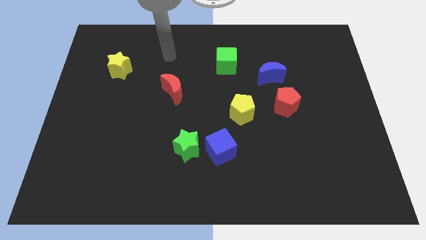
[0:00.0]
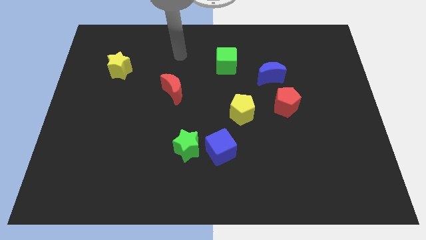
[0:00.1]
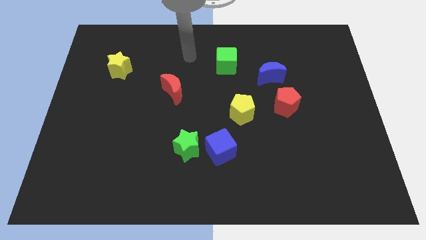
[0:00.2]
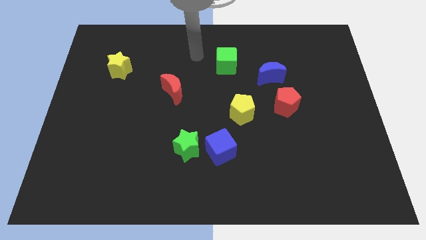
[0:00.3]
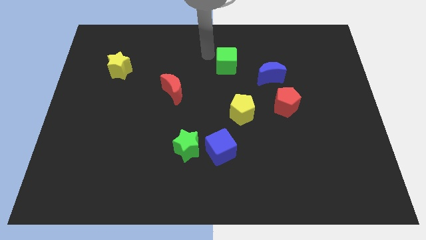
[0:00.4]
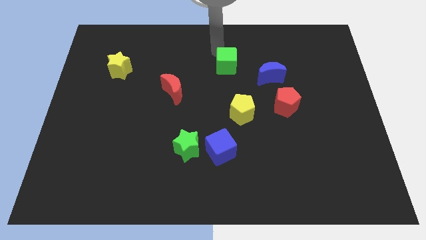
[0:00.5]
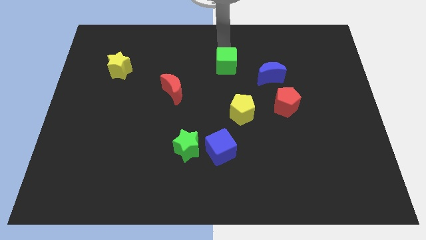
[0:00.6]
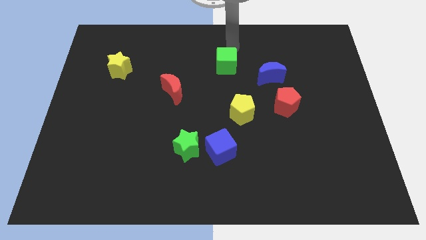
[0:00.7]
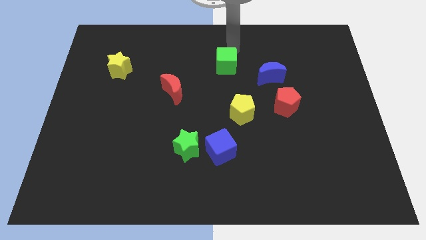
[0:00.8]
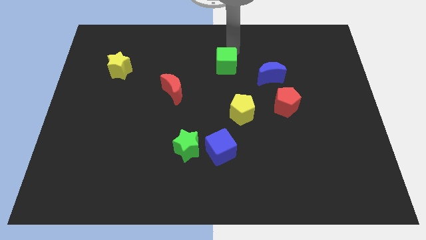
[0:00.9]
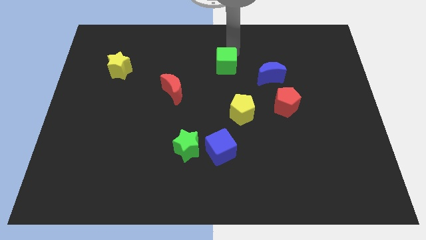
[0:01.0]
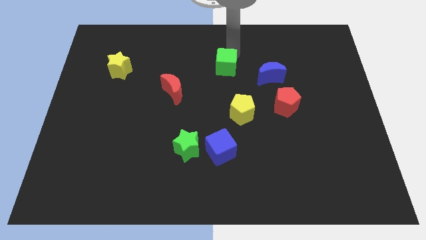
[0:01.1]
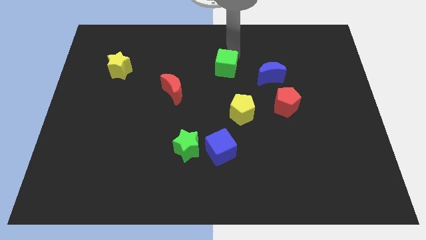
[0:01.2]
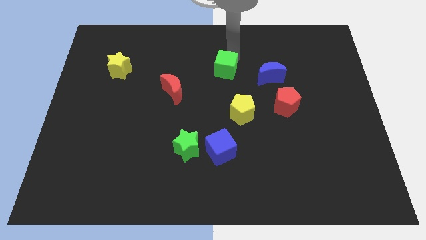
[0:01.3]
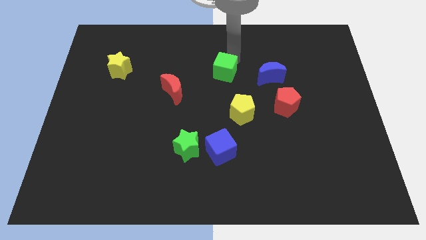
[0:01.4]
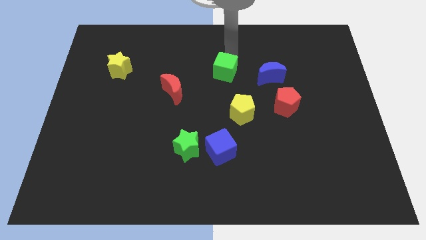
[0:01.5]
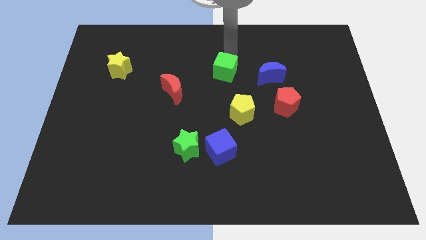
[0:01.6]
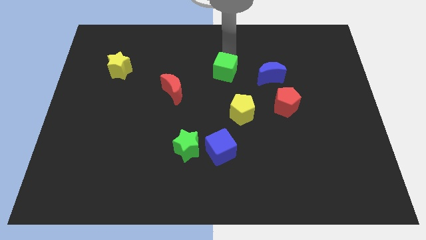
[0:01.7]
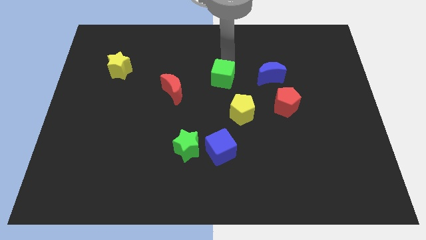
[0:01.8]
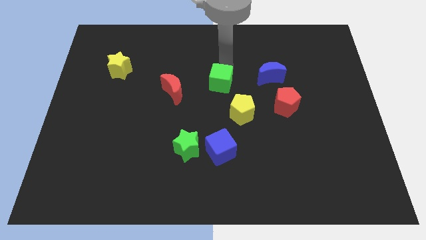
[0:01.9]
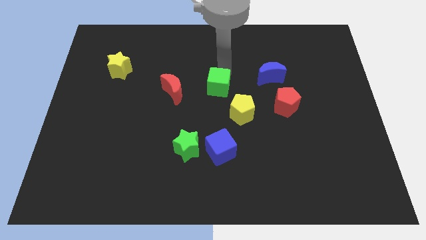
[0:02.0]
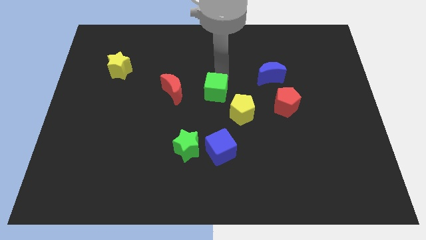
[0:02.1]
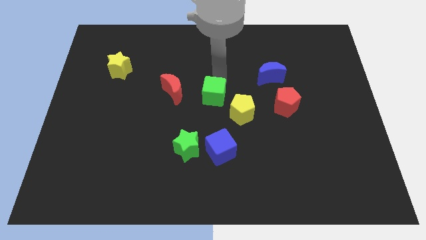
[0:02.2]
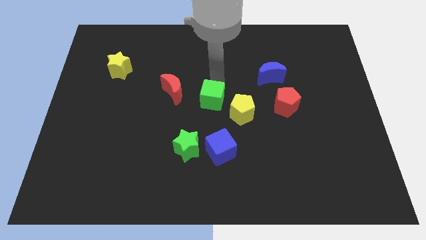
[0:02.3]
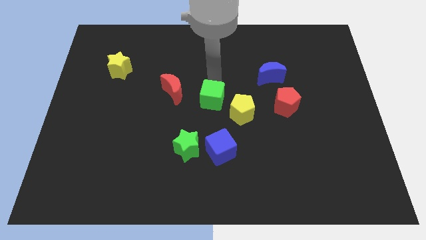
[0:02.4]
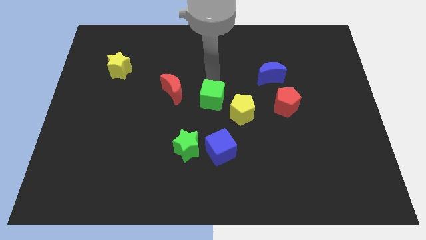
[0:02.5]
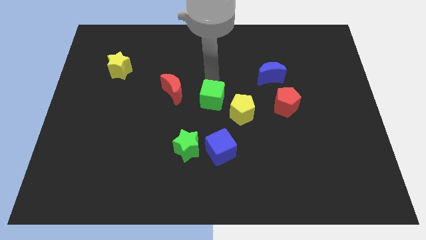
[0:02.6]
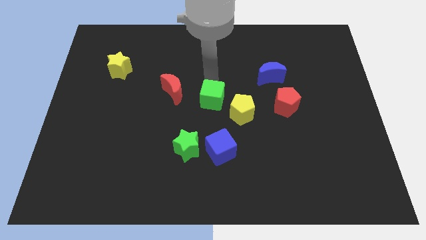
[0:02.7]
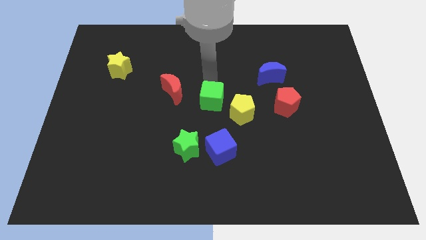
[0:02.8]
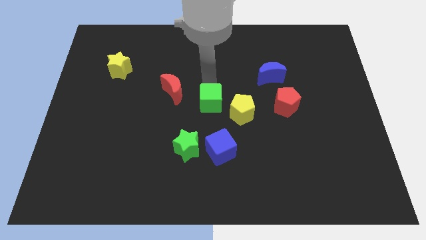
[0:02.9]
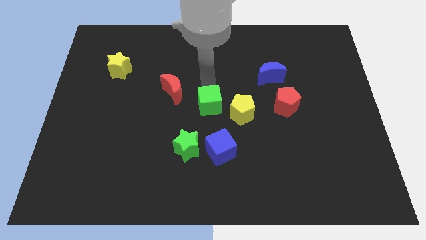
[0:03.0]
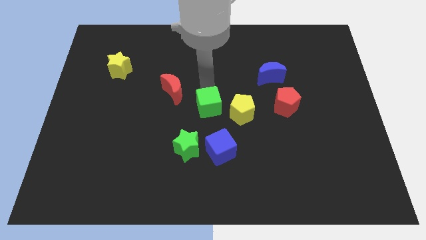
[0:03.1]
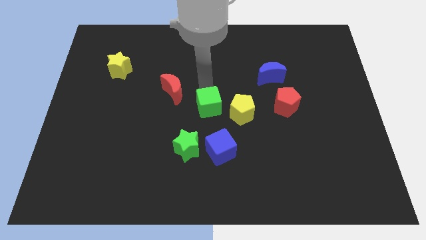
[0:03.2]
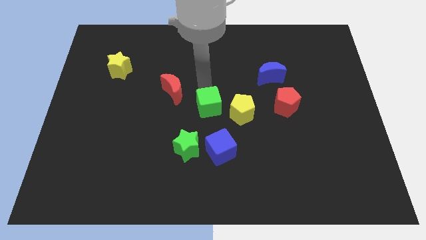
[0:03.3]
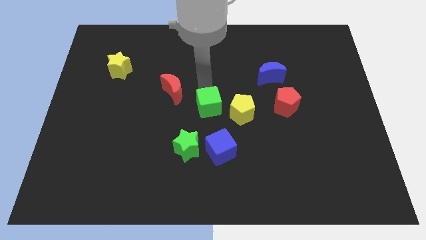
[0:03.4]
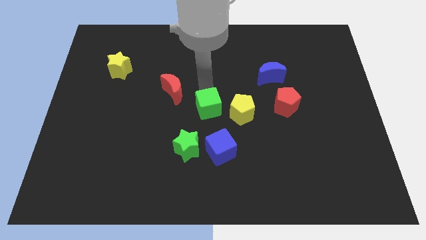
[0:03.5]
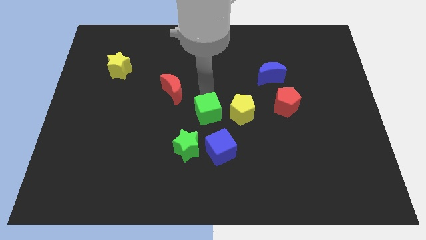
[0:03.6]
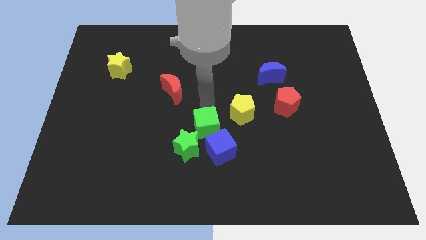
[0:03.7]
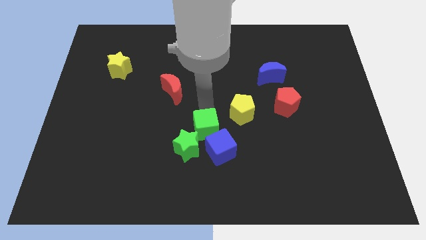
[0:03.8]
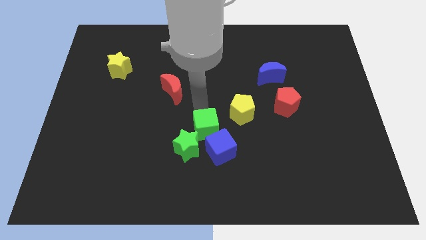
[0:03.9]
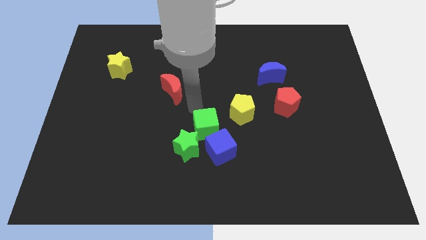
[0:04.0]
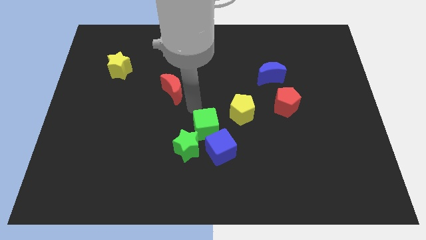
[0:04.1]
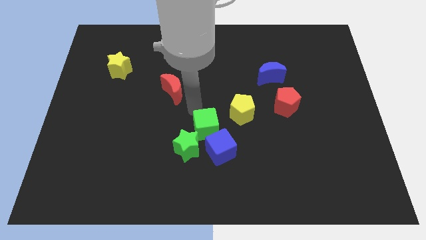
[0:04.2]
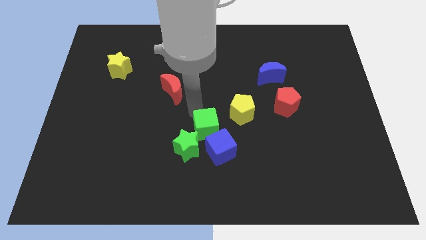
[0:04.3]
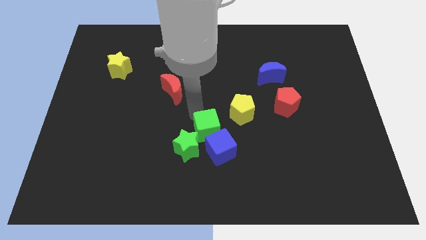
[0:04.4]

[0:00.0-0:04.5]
push the green cube towards the blue cube

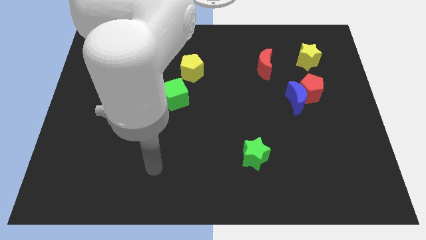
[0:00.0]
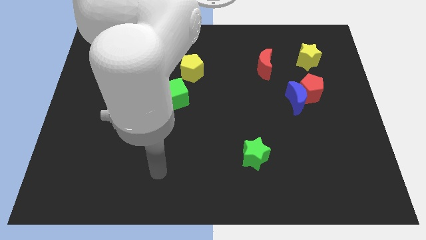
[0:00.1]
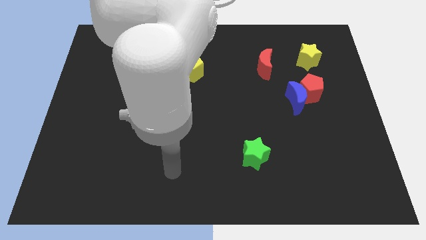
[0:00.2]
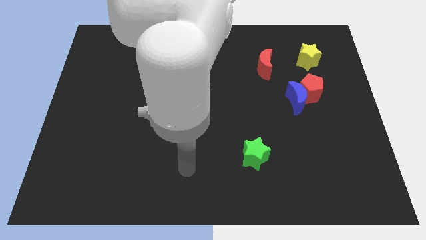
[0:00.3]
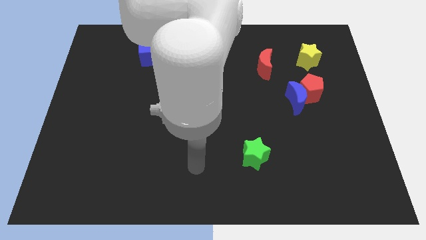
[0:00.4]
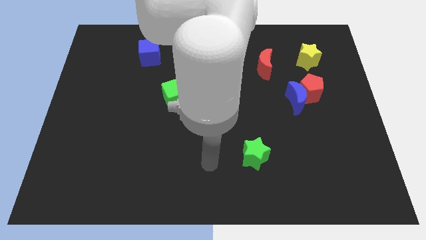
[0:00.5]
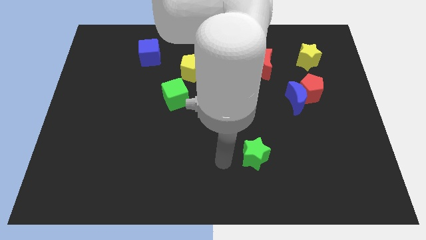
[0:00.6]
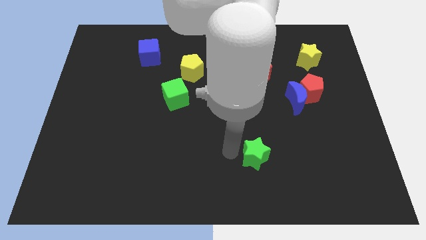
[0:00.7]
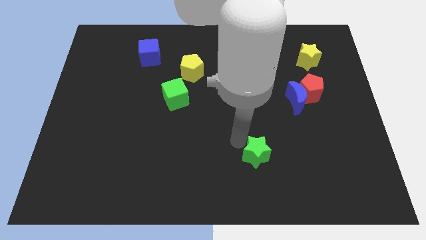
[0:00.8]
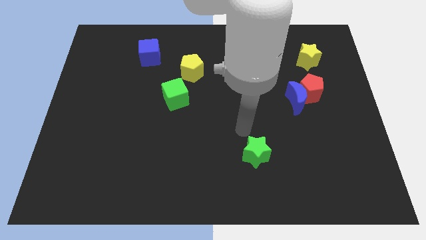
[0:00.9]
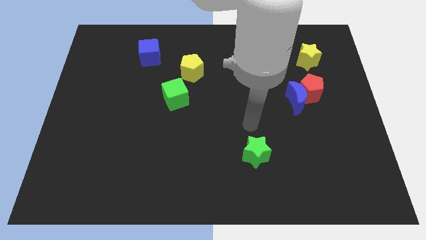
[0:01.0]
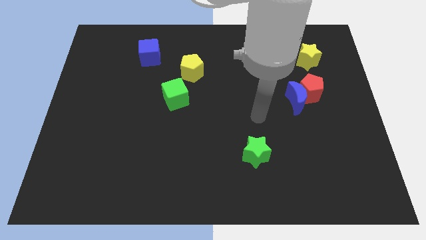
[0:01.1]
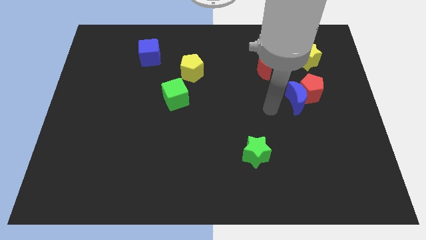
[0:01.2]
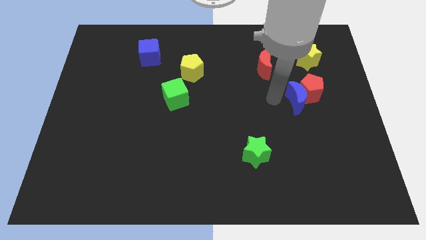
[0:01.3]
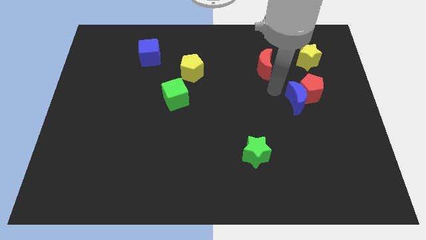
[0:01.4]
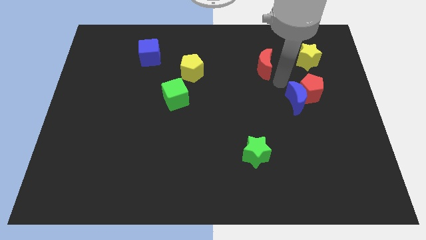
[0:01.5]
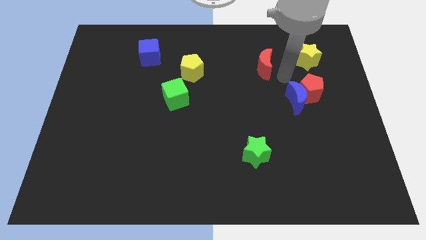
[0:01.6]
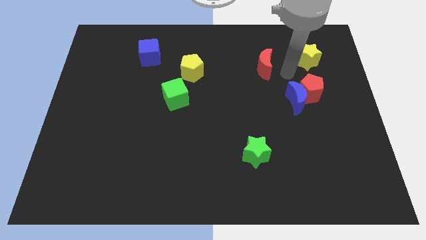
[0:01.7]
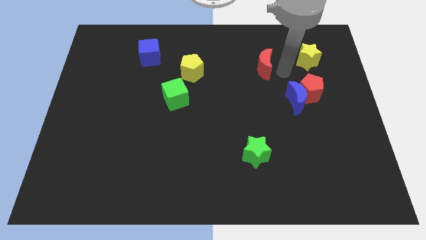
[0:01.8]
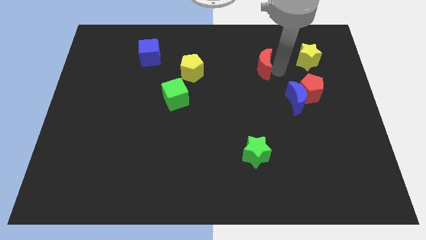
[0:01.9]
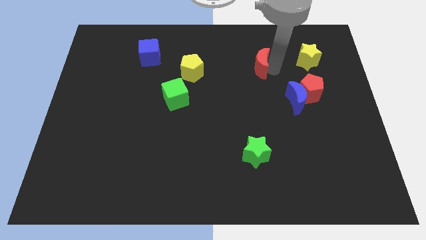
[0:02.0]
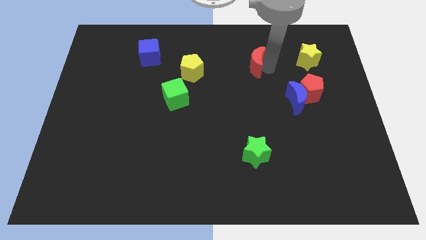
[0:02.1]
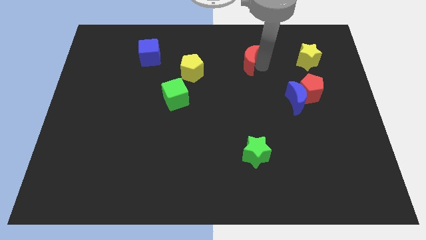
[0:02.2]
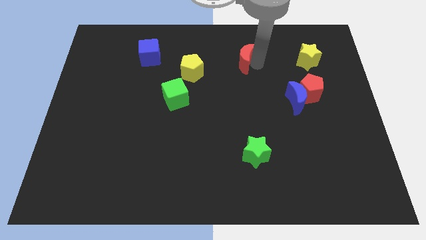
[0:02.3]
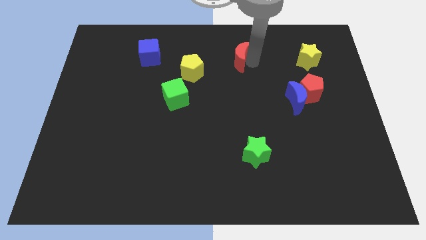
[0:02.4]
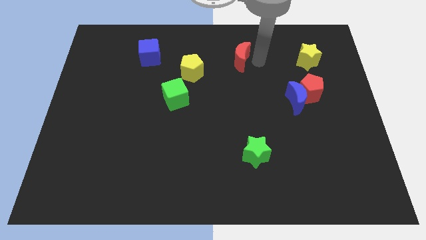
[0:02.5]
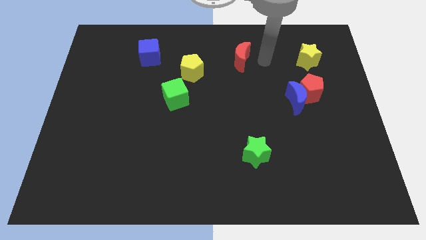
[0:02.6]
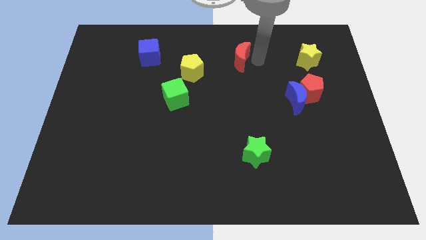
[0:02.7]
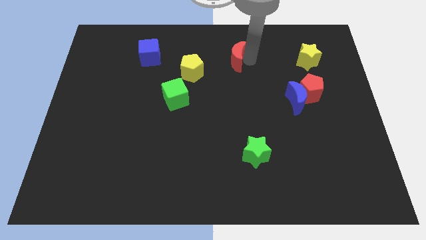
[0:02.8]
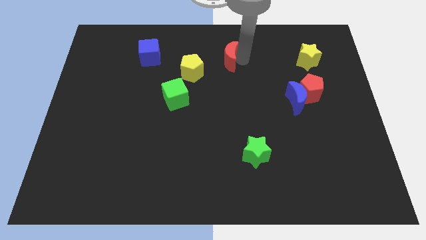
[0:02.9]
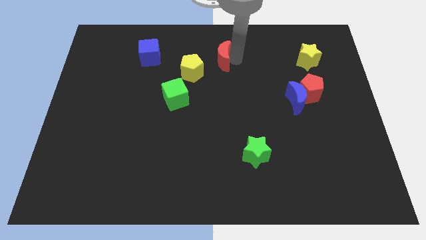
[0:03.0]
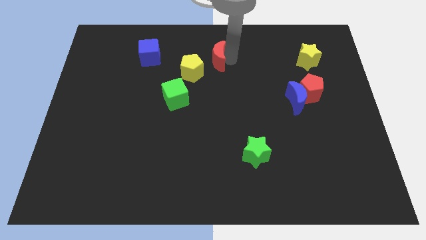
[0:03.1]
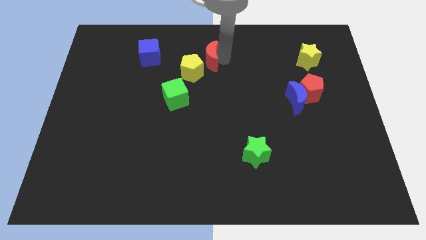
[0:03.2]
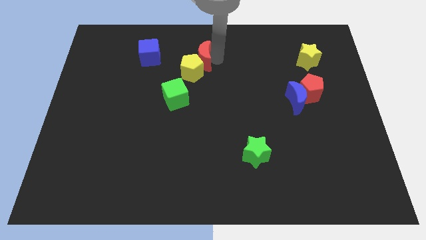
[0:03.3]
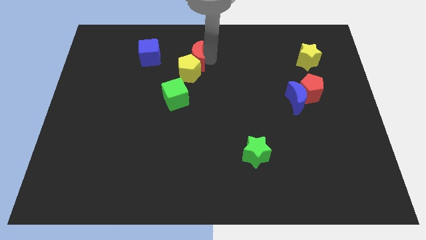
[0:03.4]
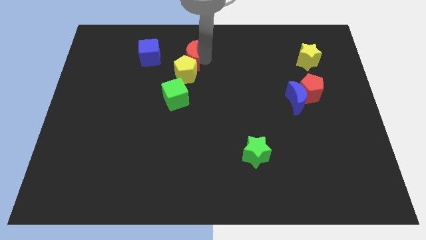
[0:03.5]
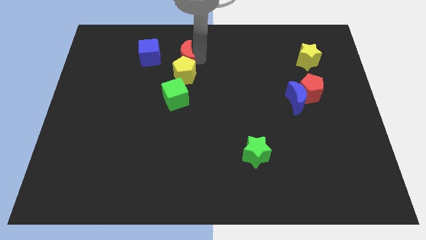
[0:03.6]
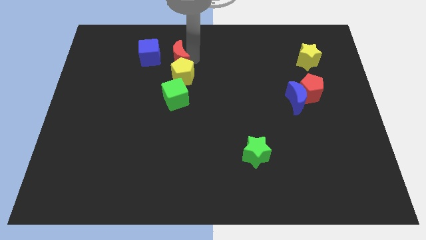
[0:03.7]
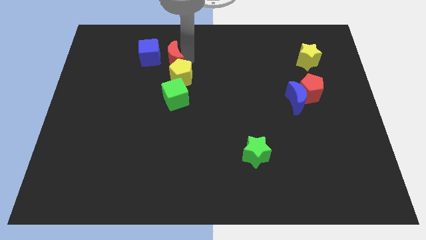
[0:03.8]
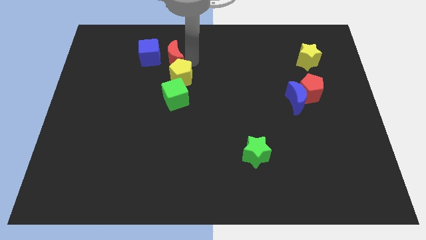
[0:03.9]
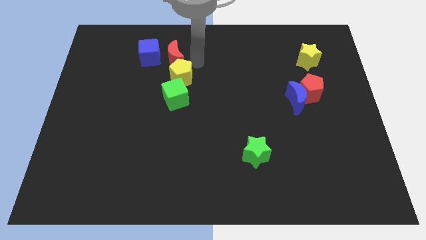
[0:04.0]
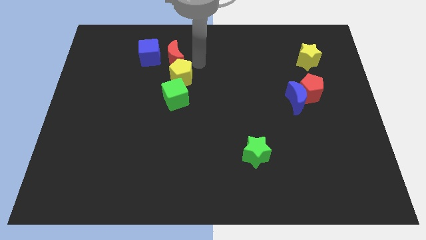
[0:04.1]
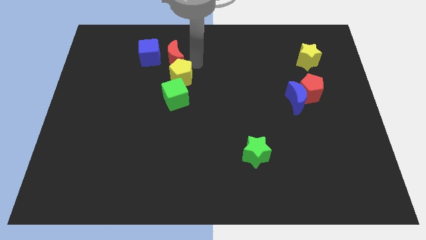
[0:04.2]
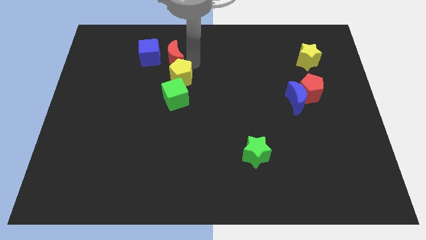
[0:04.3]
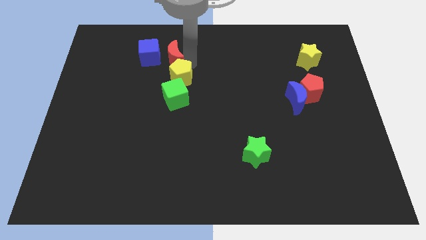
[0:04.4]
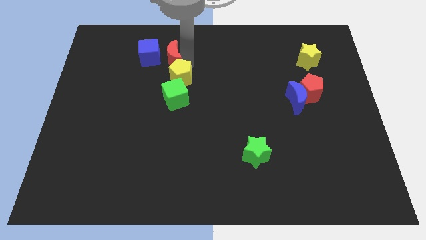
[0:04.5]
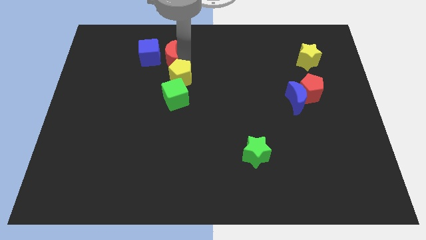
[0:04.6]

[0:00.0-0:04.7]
slide the red moon to the blue cube
